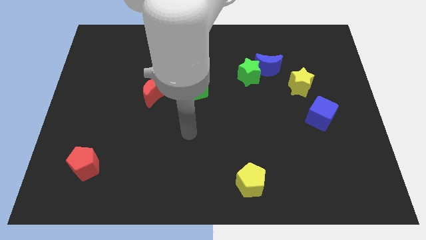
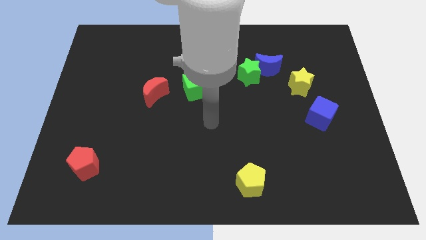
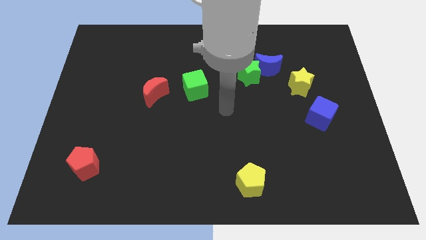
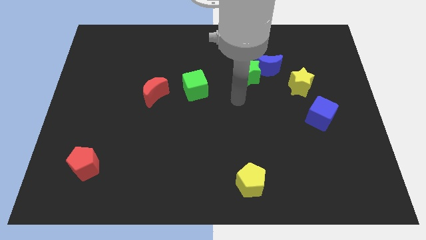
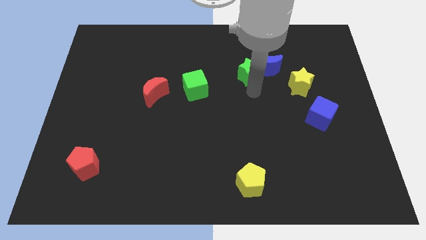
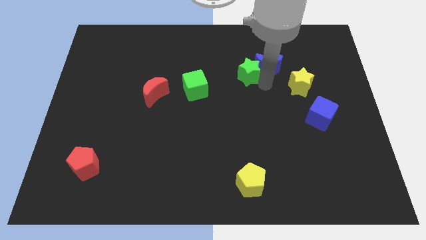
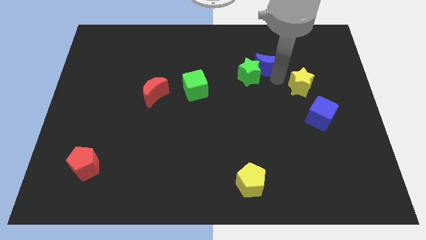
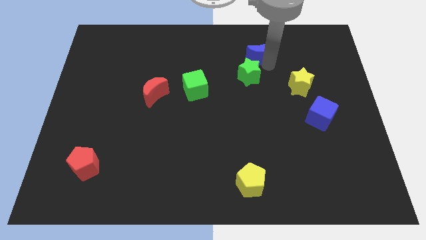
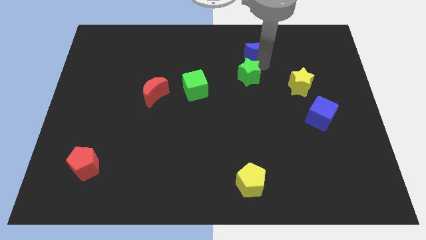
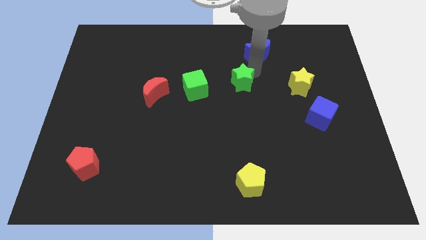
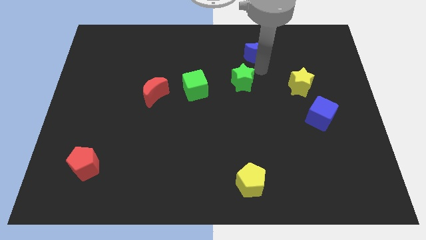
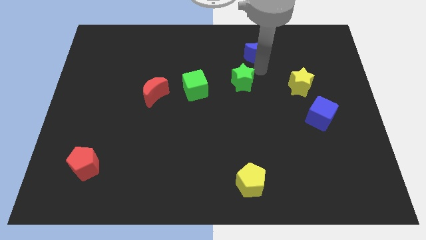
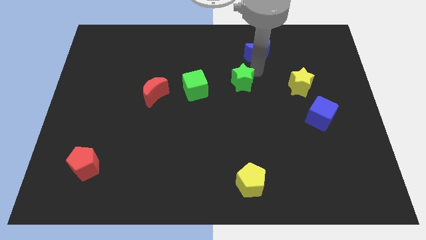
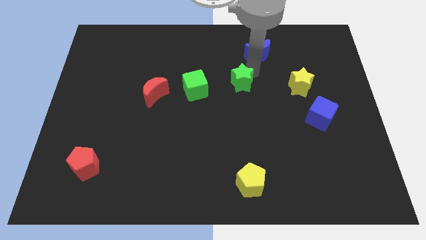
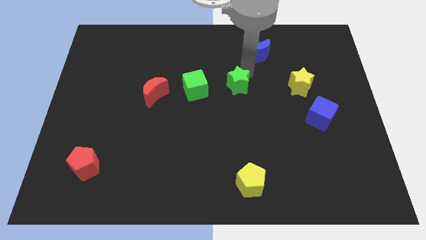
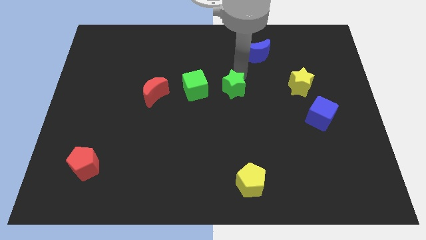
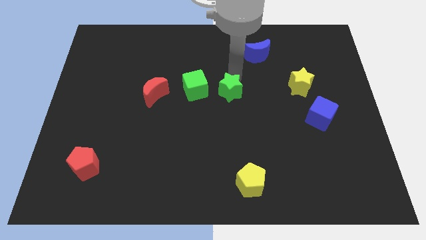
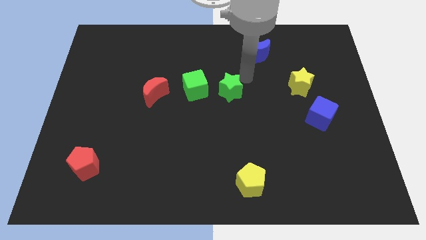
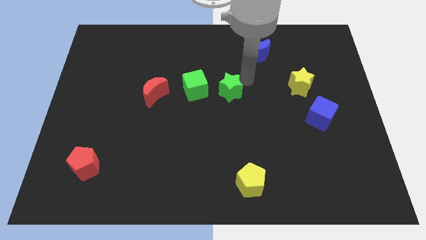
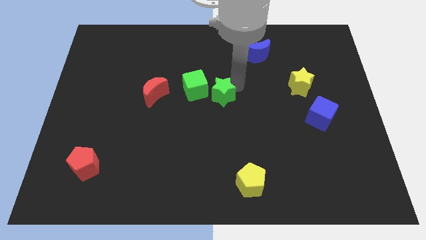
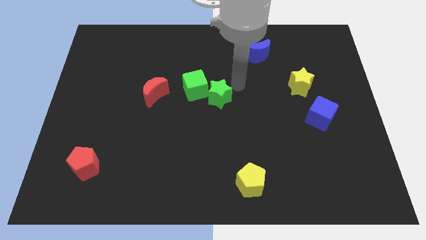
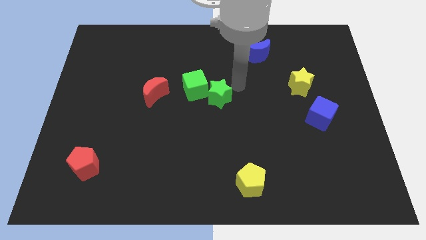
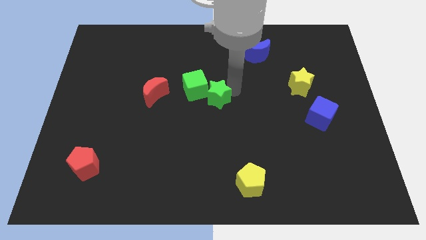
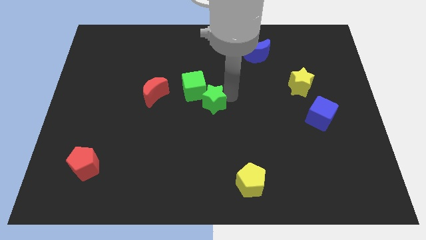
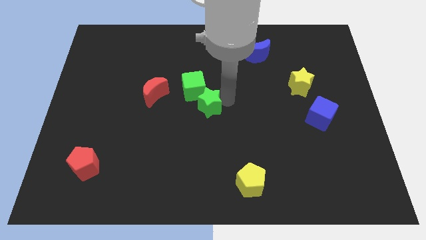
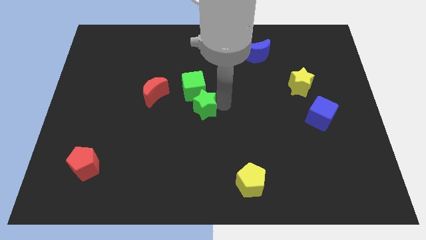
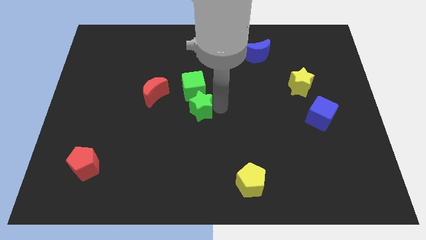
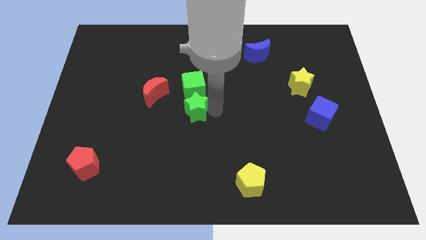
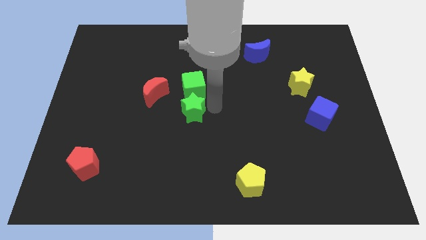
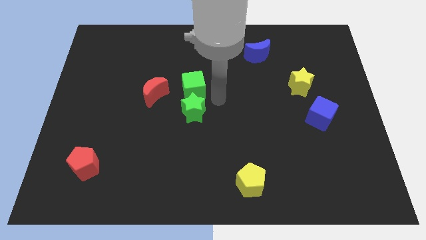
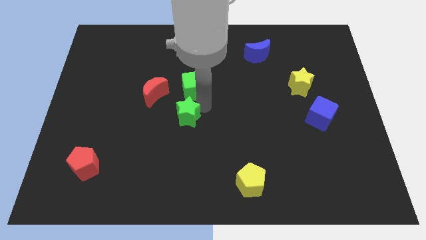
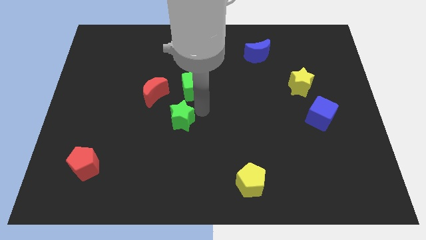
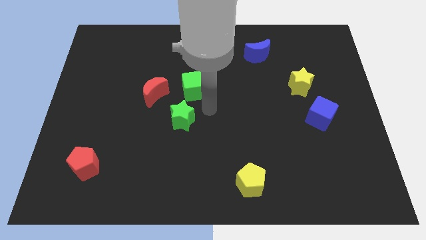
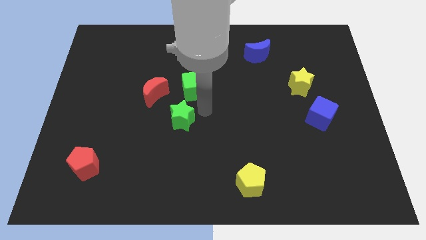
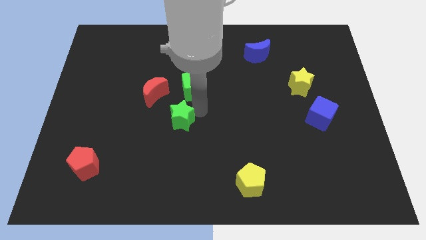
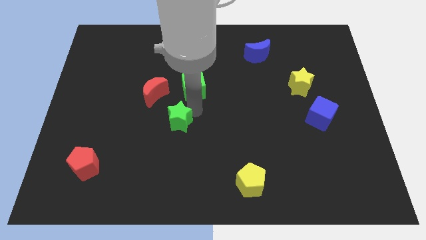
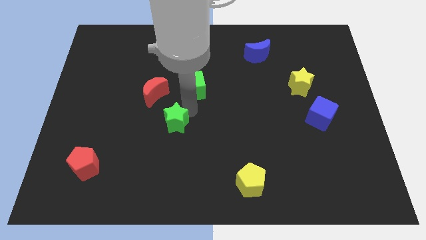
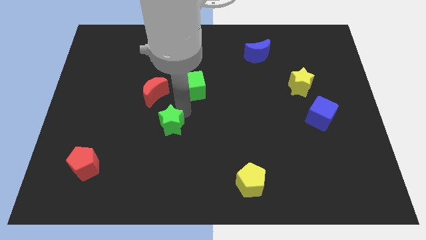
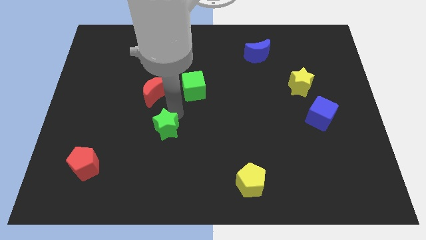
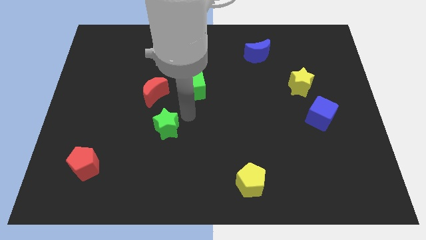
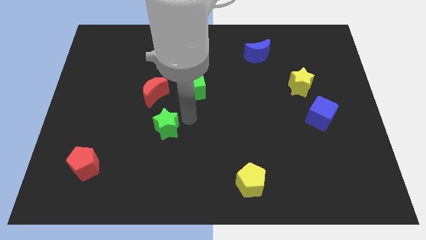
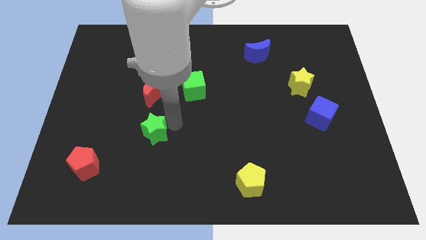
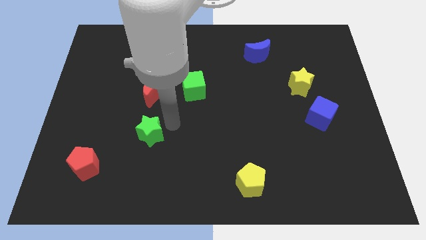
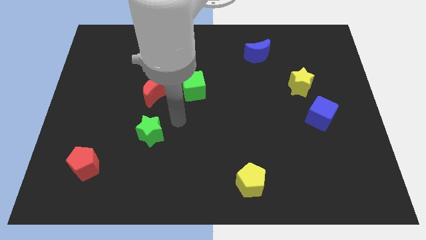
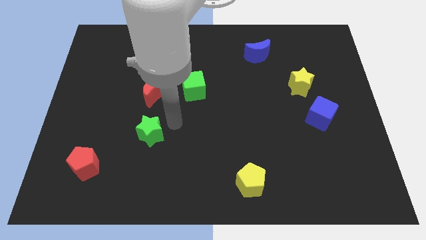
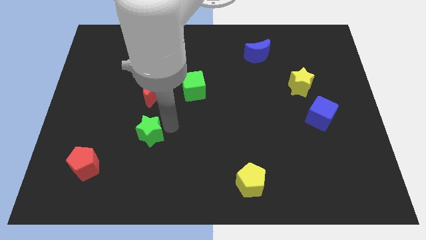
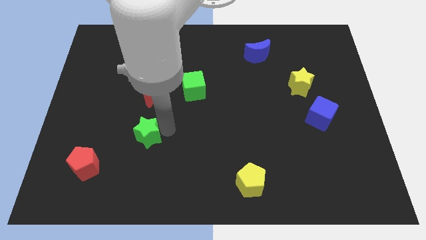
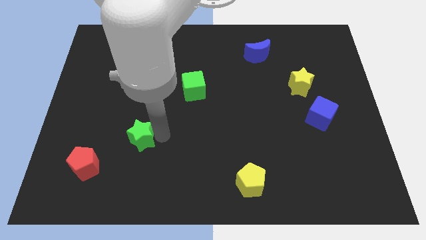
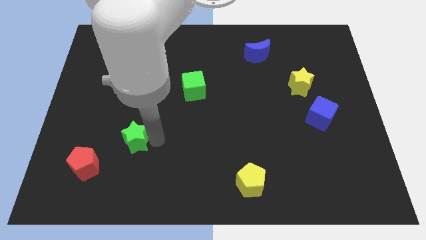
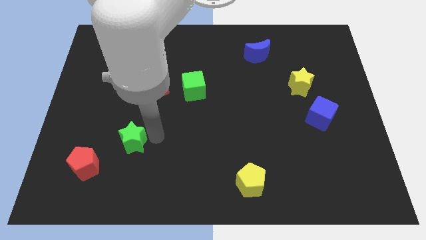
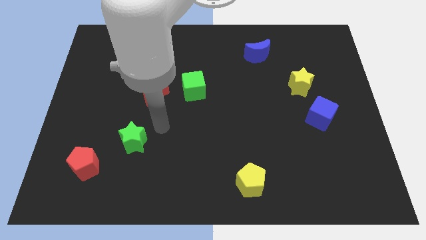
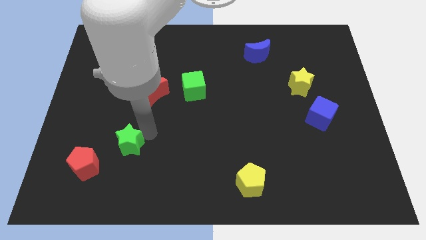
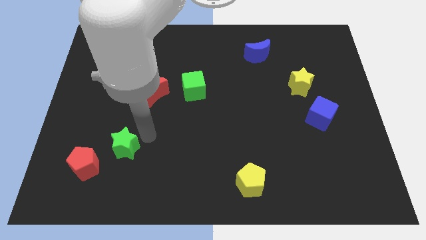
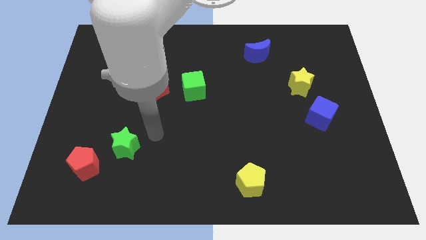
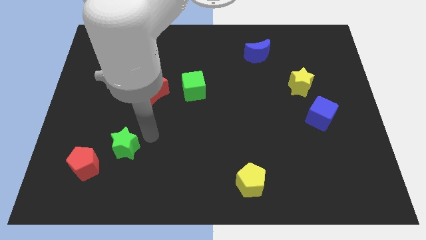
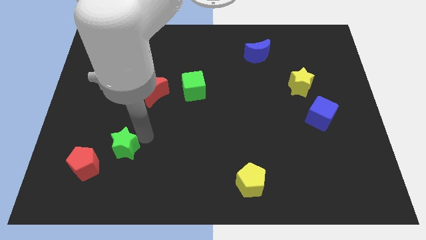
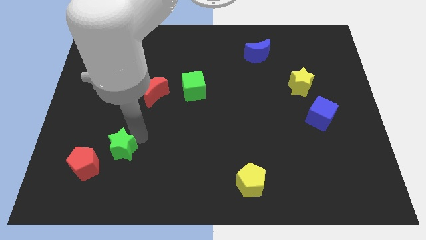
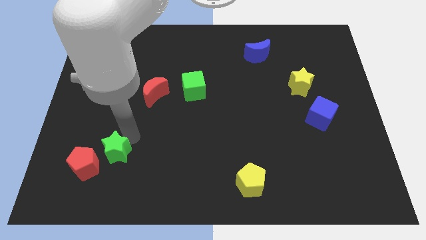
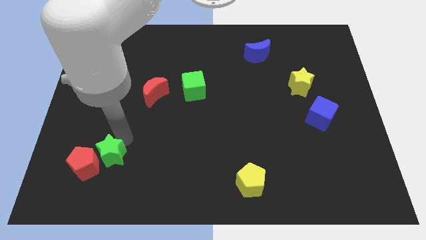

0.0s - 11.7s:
put the green star next to the red pentagon

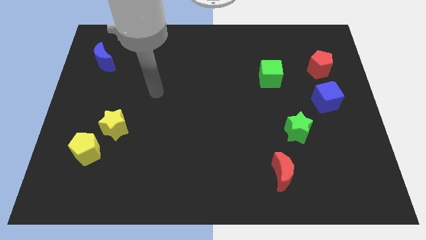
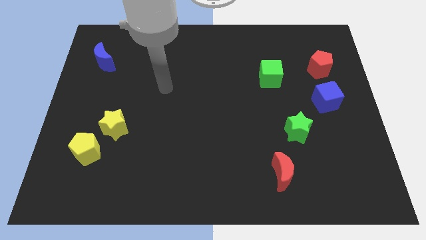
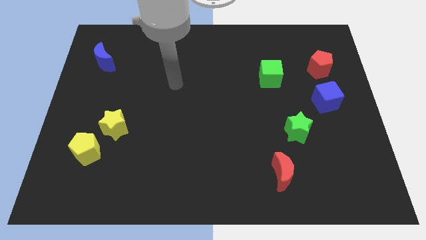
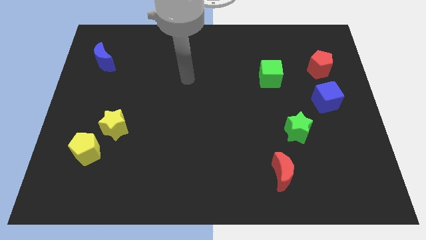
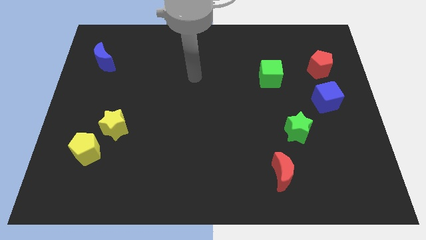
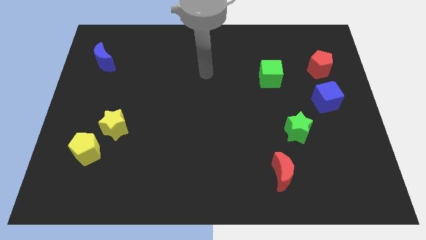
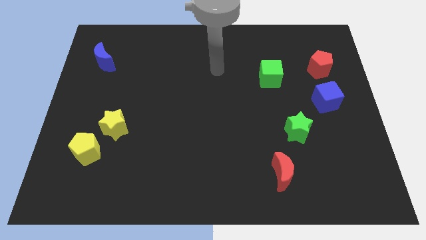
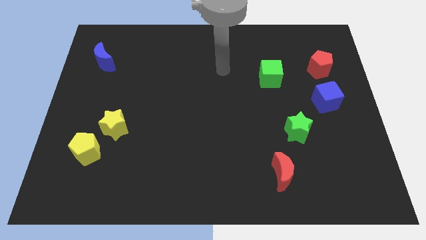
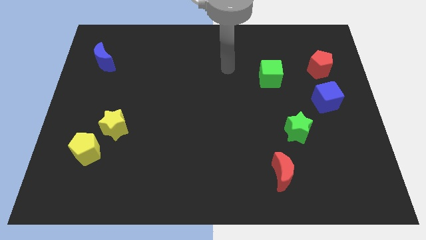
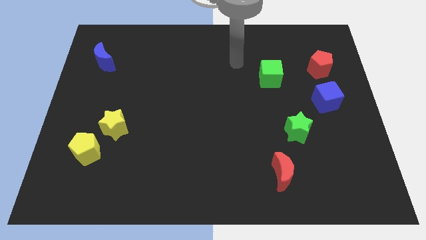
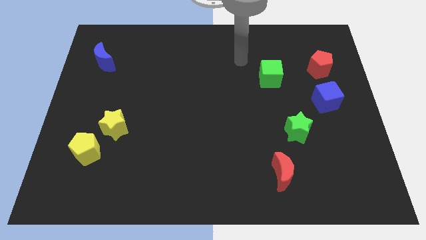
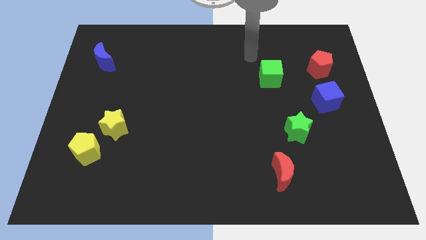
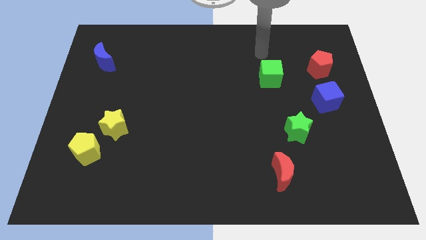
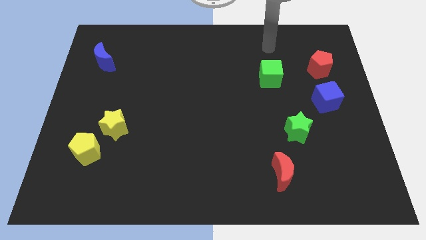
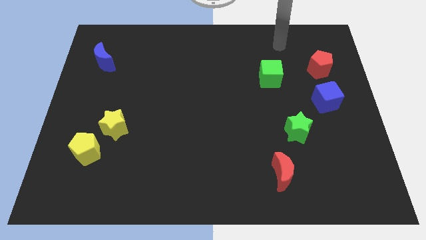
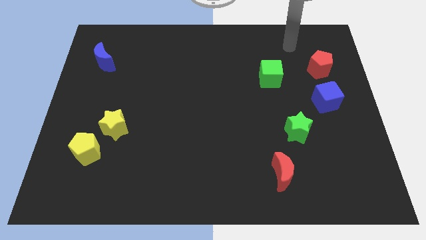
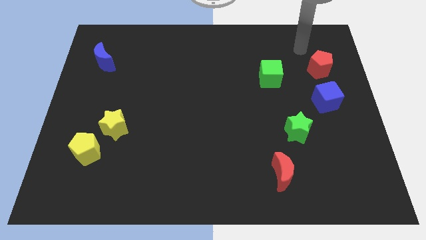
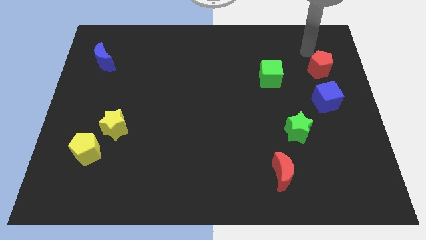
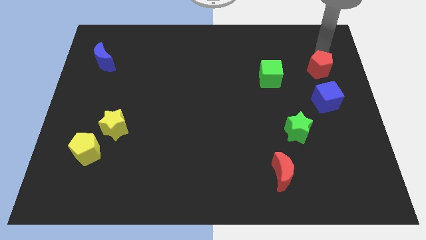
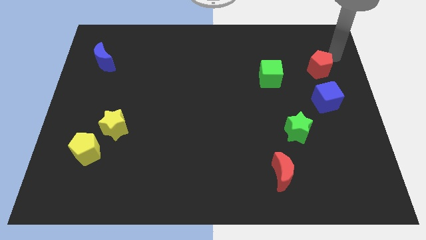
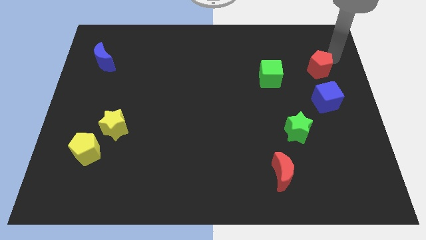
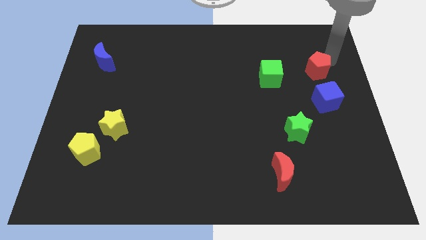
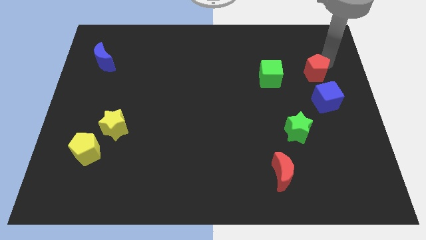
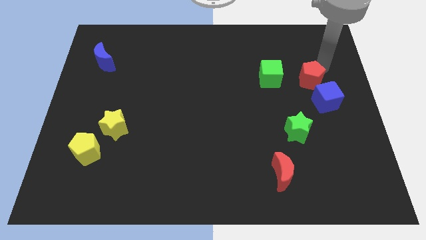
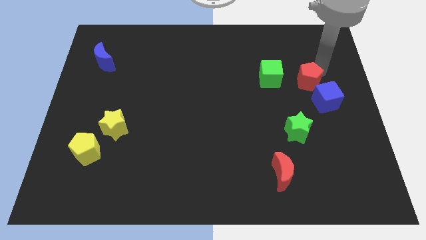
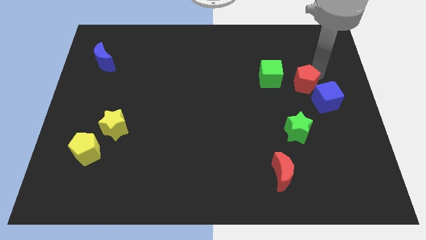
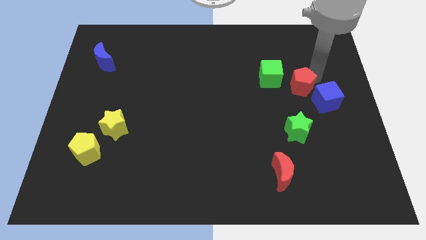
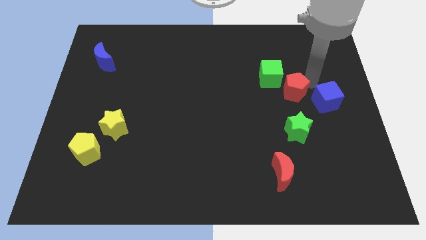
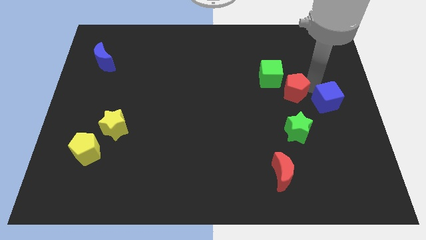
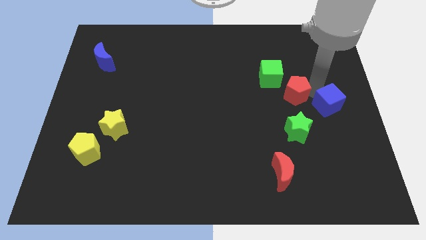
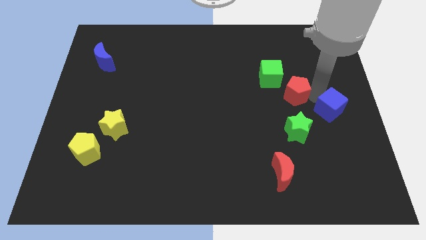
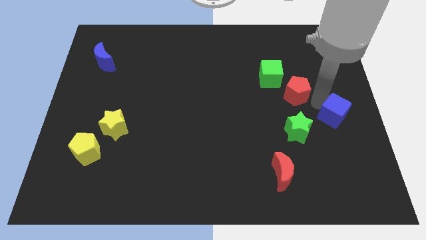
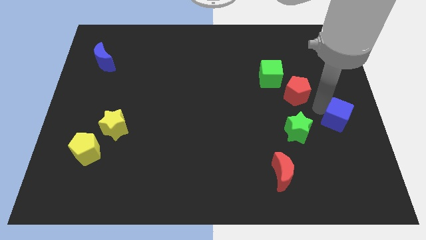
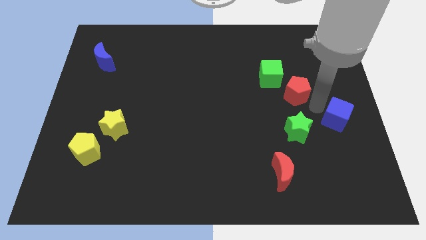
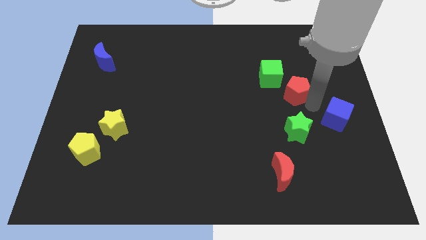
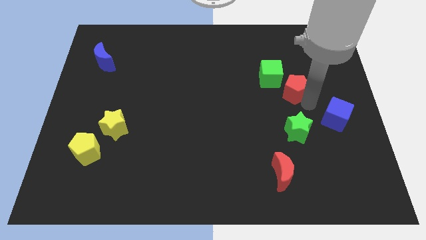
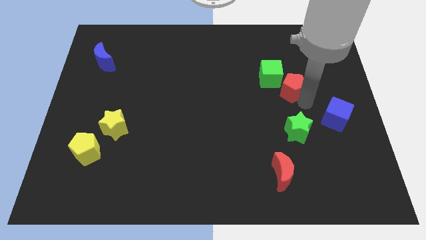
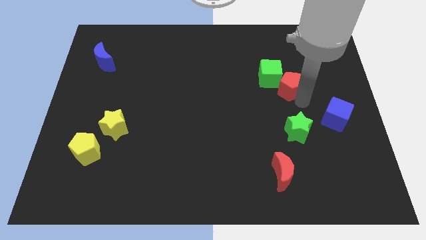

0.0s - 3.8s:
put the red pentagon towards the green cube
